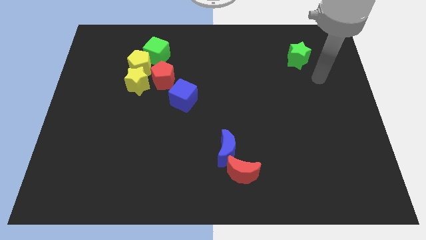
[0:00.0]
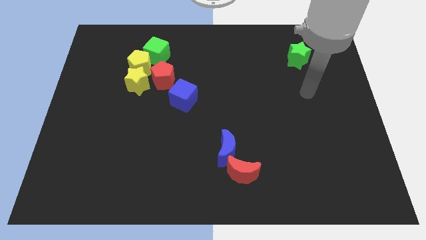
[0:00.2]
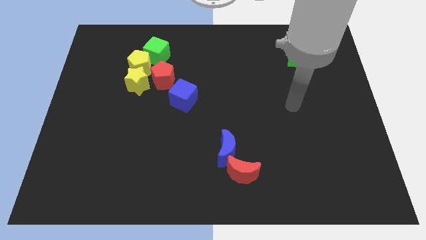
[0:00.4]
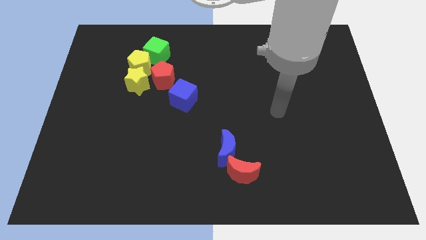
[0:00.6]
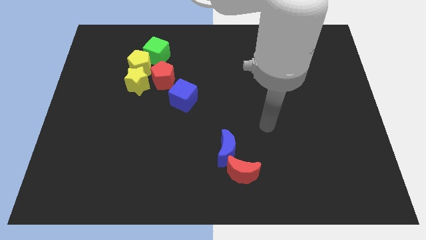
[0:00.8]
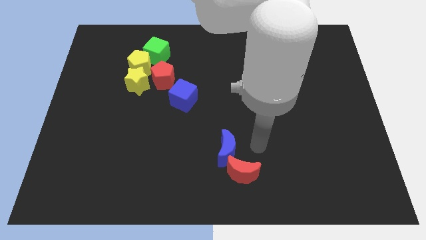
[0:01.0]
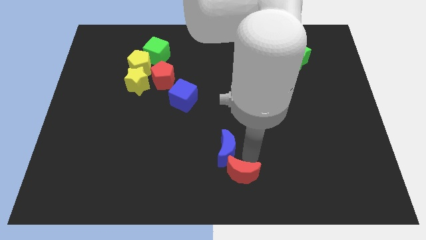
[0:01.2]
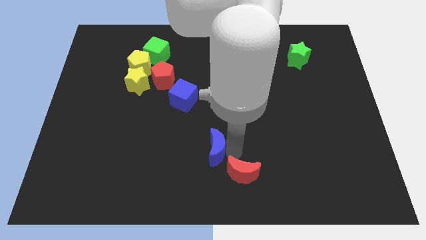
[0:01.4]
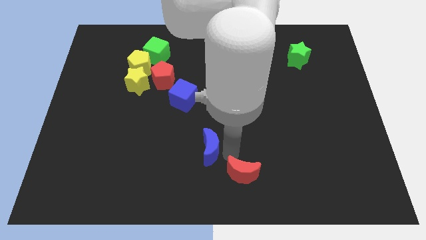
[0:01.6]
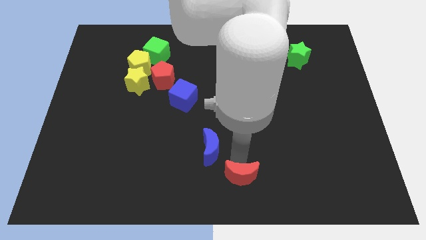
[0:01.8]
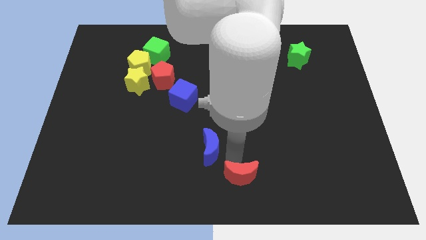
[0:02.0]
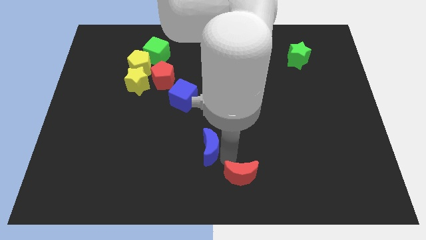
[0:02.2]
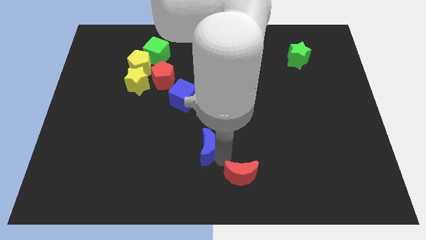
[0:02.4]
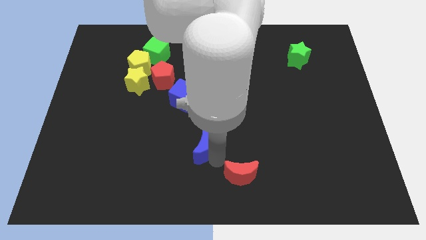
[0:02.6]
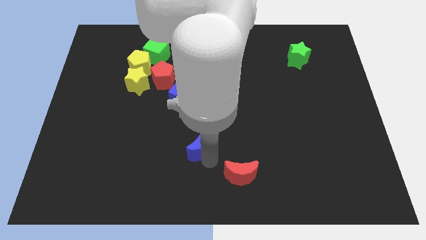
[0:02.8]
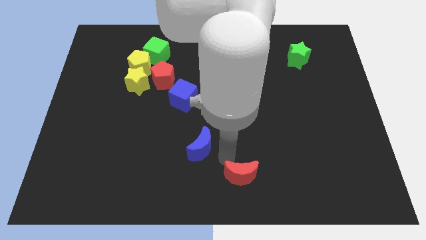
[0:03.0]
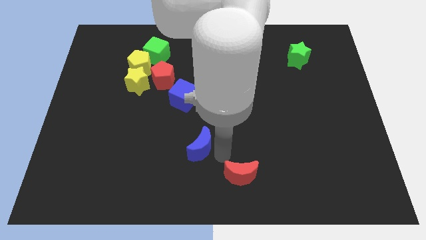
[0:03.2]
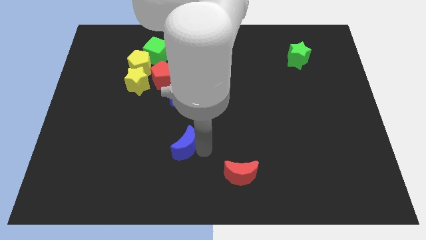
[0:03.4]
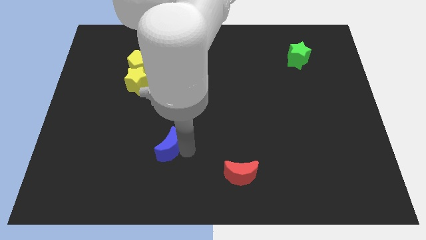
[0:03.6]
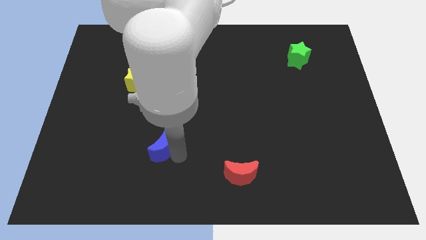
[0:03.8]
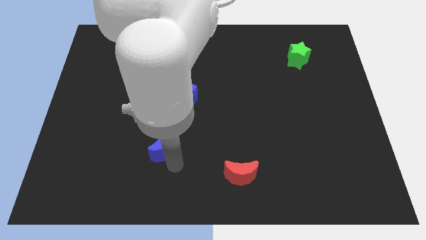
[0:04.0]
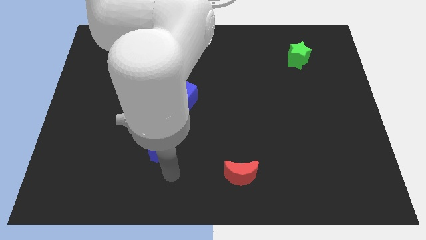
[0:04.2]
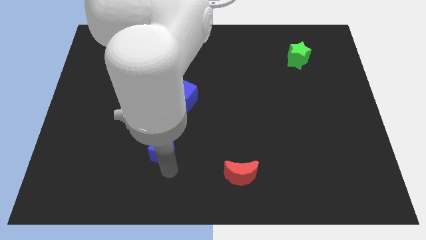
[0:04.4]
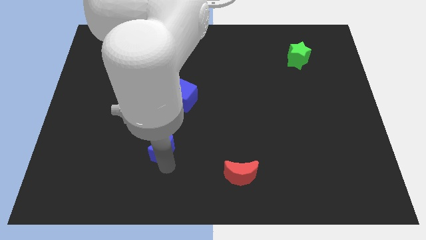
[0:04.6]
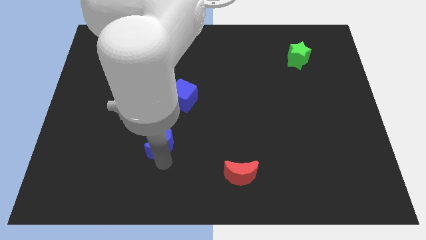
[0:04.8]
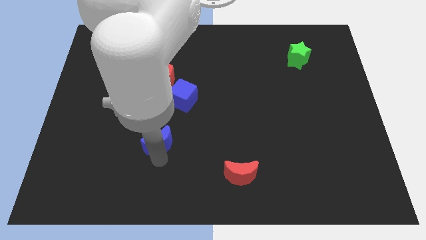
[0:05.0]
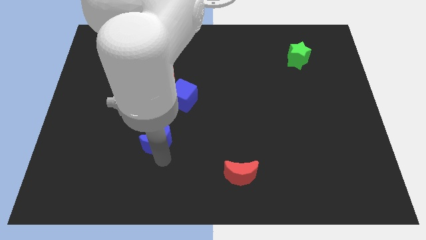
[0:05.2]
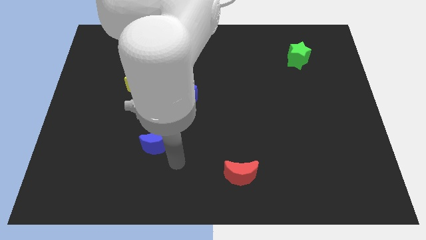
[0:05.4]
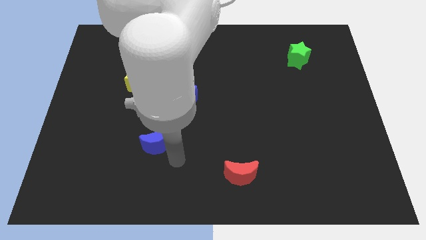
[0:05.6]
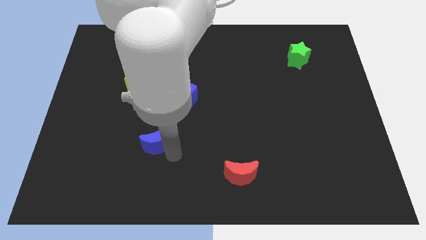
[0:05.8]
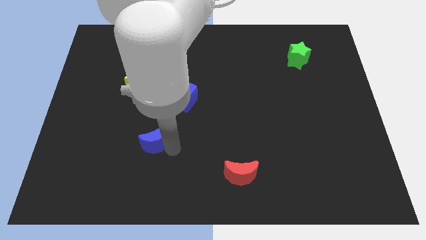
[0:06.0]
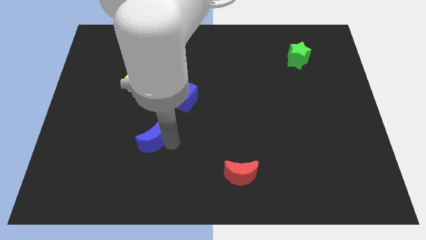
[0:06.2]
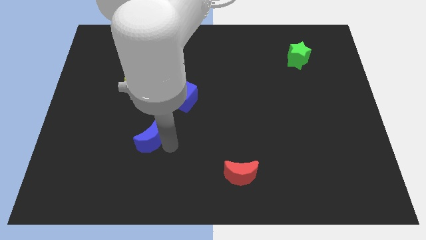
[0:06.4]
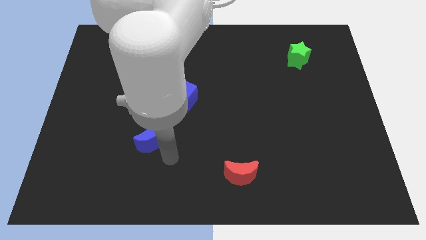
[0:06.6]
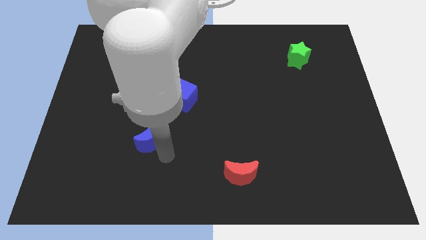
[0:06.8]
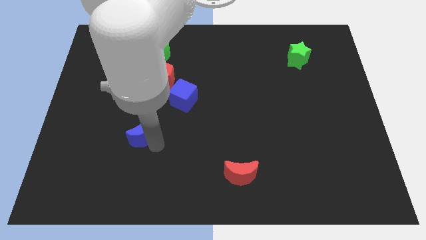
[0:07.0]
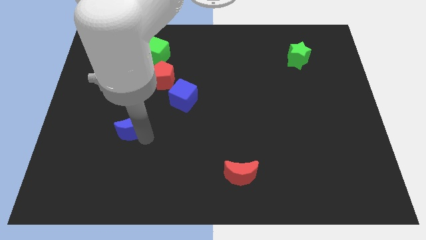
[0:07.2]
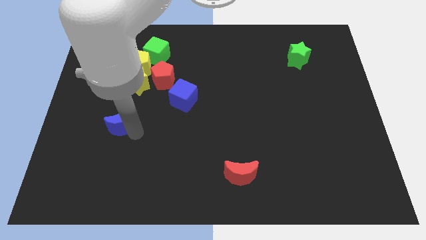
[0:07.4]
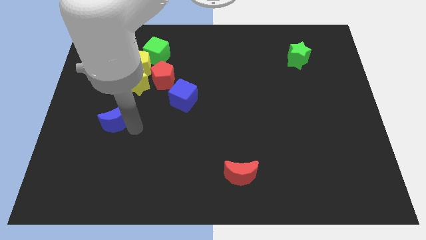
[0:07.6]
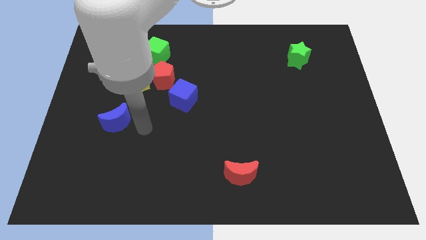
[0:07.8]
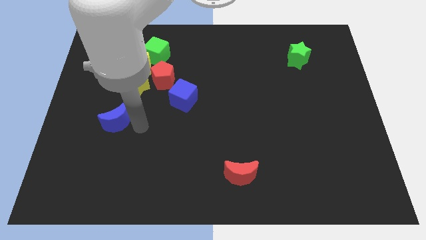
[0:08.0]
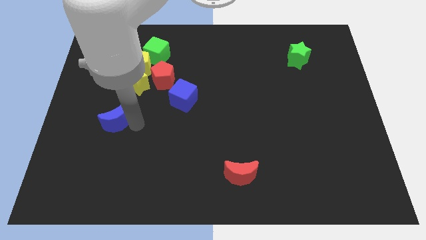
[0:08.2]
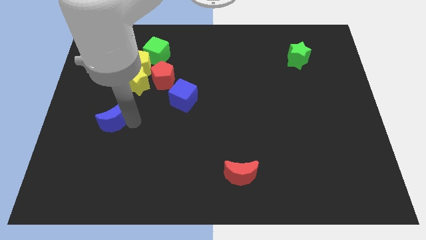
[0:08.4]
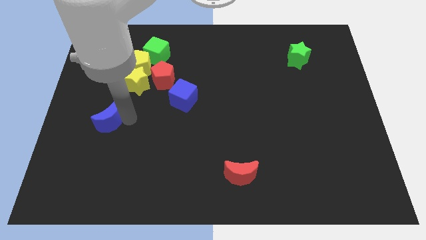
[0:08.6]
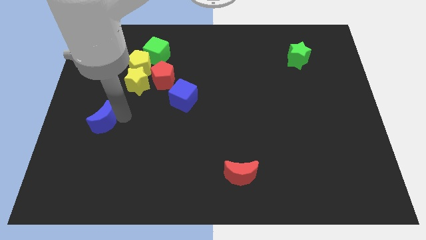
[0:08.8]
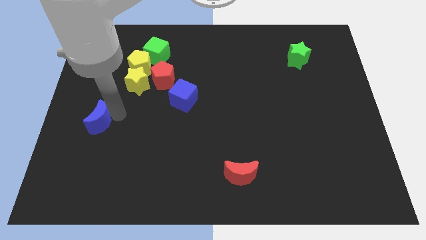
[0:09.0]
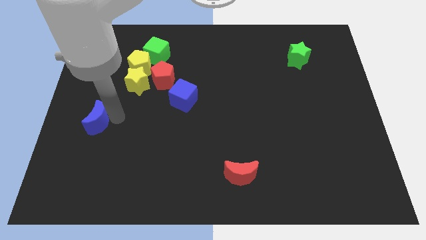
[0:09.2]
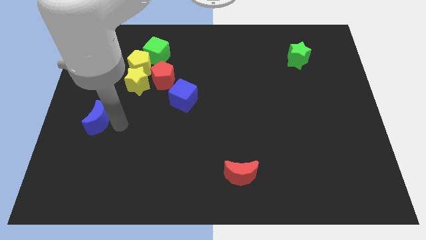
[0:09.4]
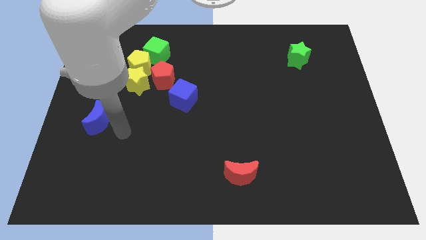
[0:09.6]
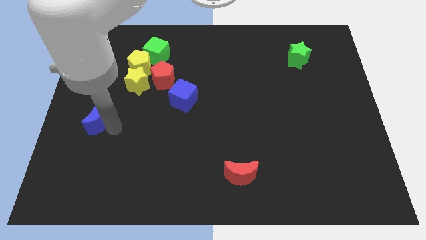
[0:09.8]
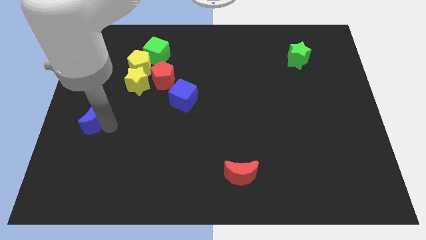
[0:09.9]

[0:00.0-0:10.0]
push the blue moon to the center left

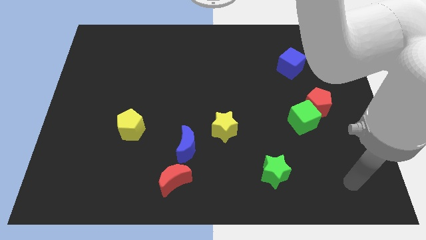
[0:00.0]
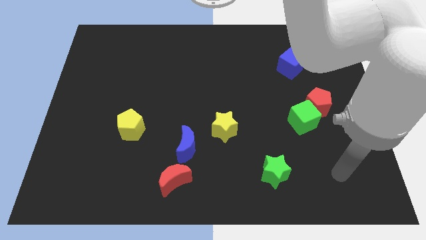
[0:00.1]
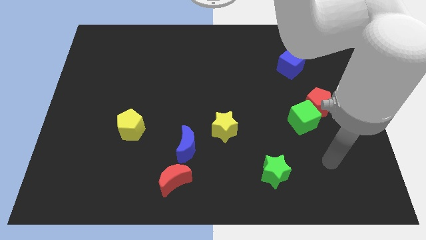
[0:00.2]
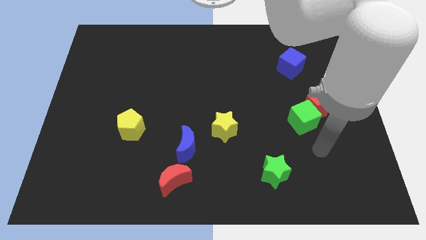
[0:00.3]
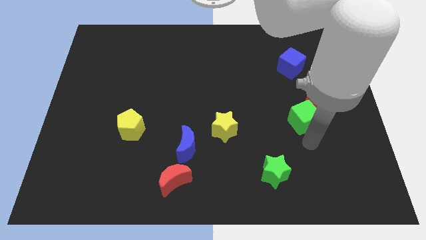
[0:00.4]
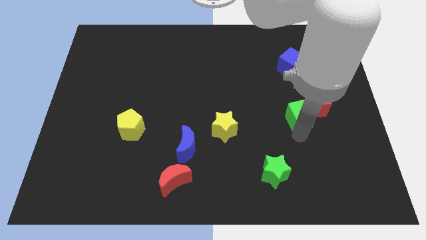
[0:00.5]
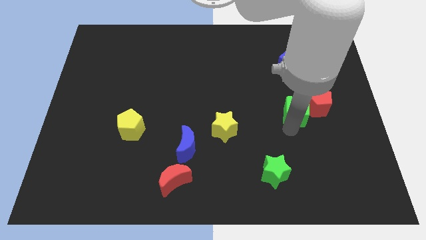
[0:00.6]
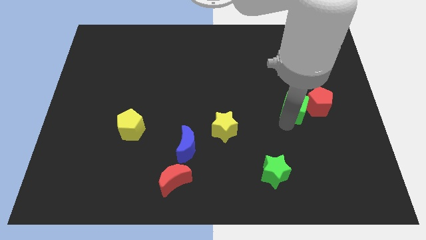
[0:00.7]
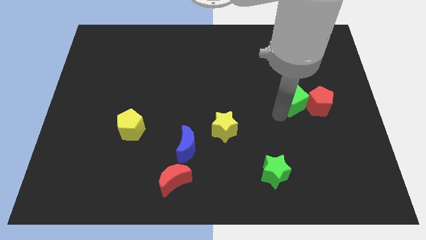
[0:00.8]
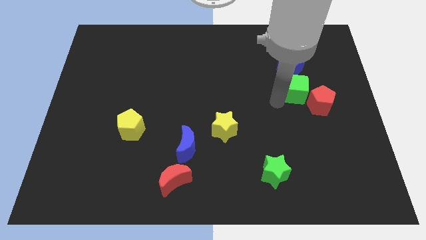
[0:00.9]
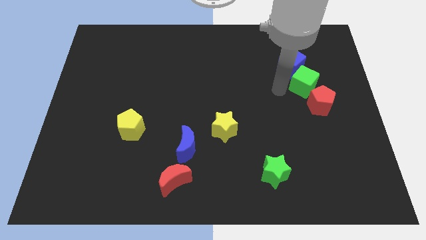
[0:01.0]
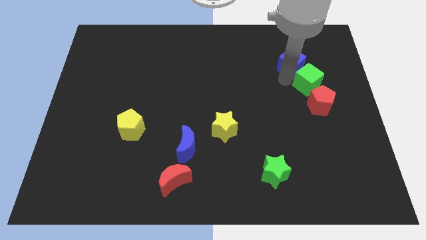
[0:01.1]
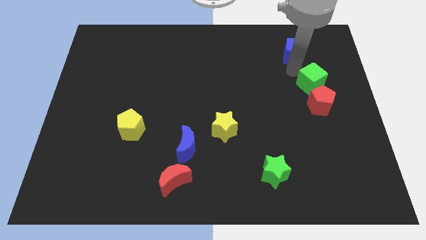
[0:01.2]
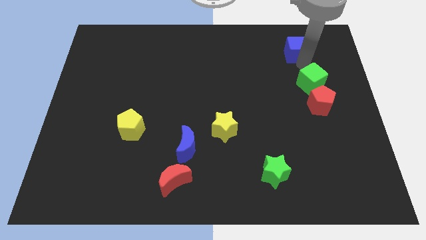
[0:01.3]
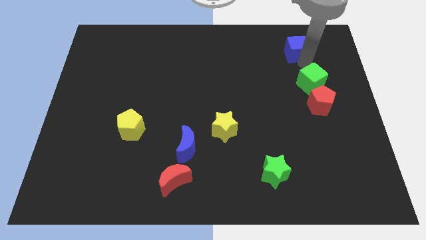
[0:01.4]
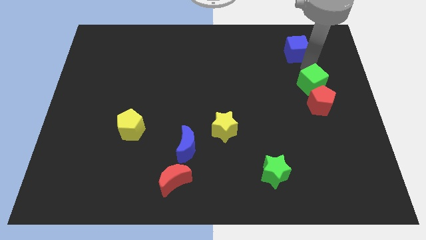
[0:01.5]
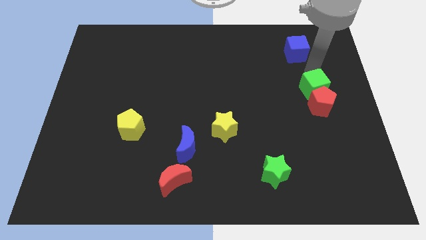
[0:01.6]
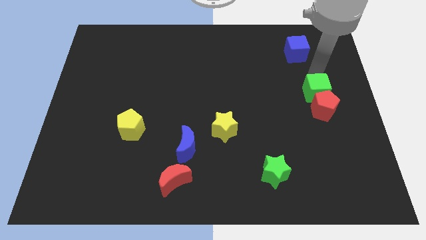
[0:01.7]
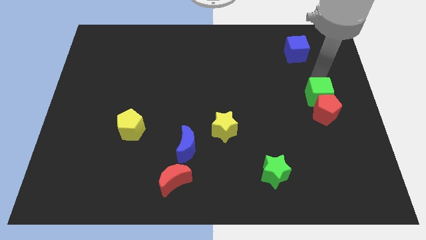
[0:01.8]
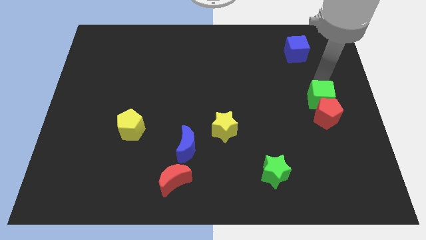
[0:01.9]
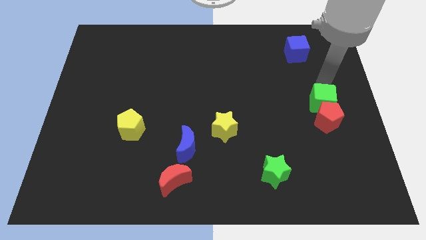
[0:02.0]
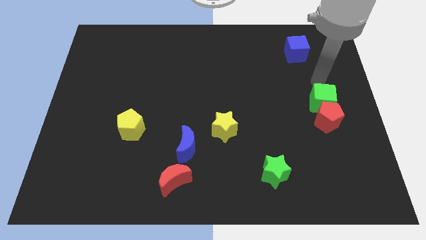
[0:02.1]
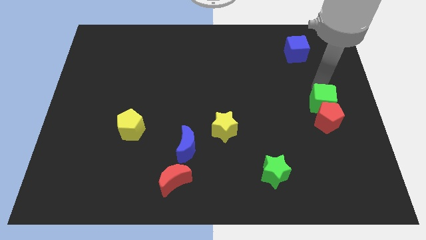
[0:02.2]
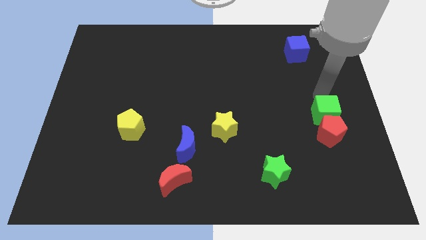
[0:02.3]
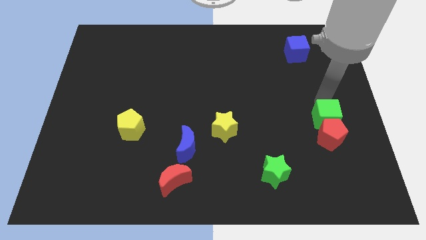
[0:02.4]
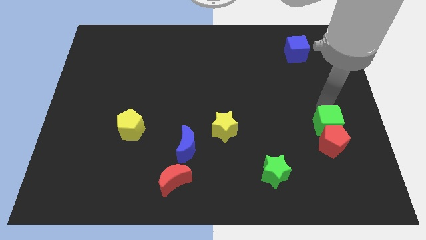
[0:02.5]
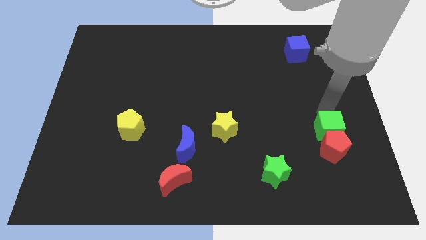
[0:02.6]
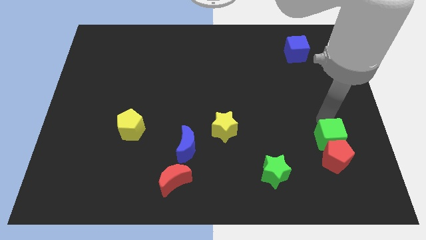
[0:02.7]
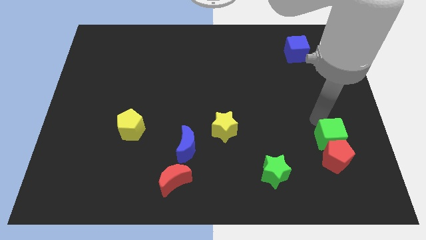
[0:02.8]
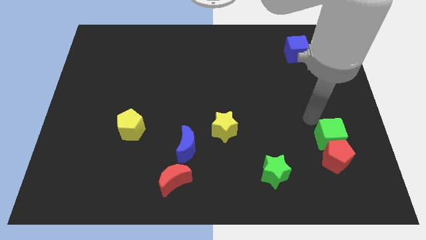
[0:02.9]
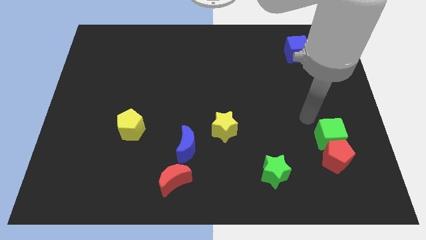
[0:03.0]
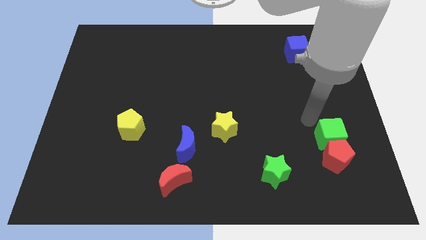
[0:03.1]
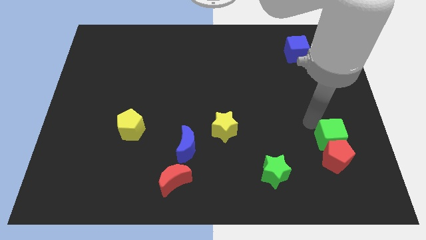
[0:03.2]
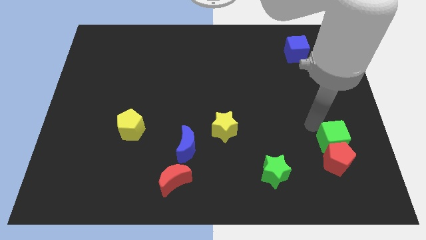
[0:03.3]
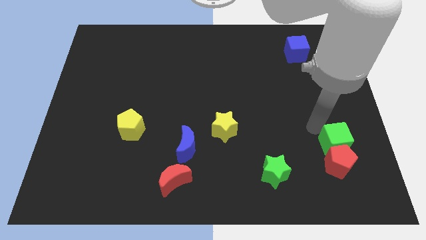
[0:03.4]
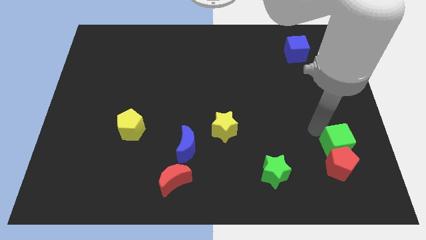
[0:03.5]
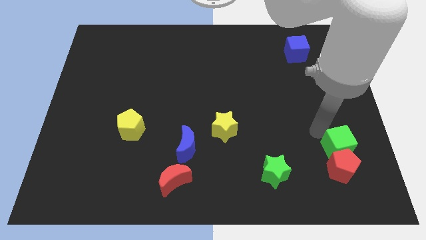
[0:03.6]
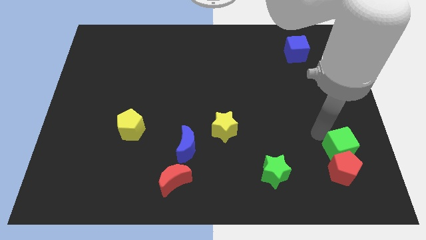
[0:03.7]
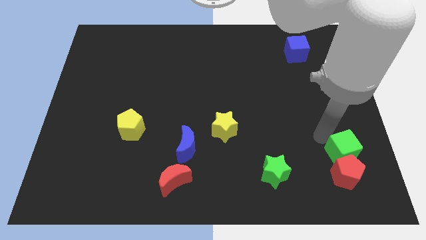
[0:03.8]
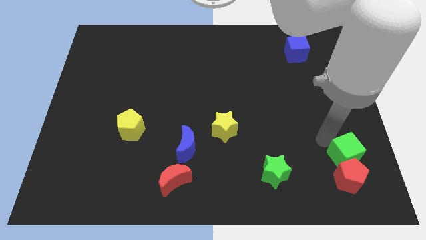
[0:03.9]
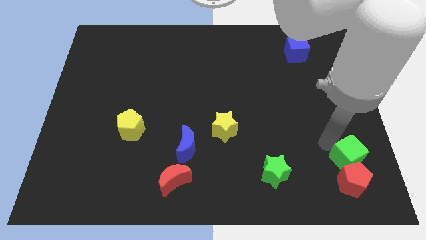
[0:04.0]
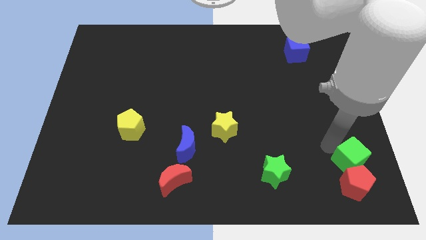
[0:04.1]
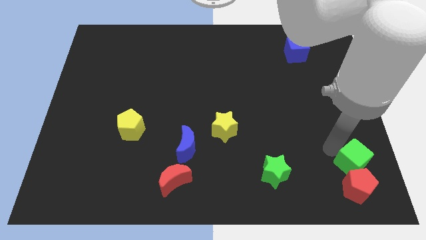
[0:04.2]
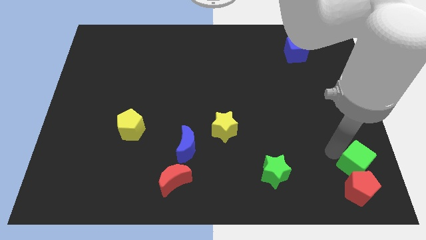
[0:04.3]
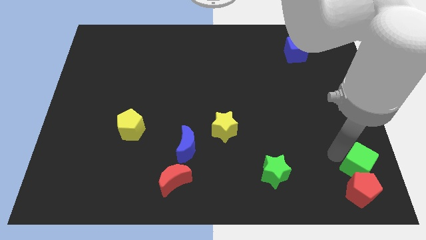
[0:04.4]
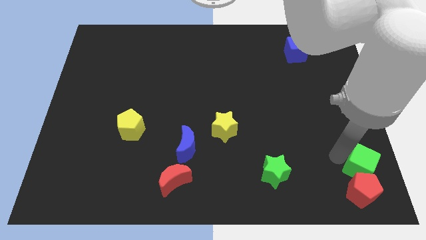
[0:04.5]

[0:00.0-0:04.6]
move the green cube to the bottom right corner
